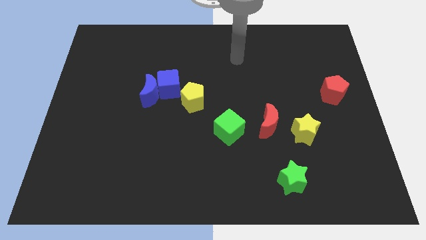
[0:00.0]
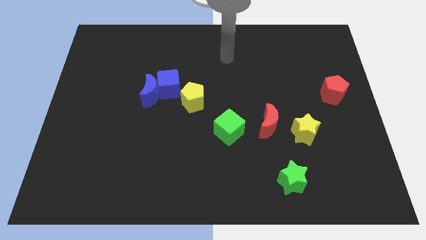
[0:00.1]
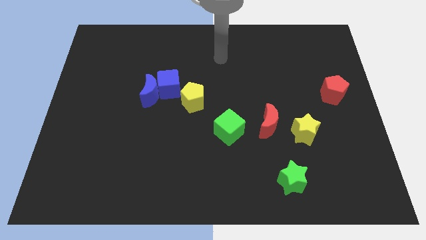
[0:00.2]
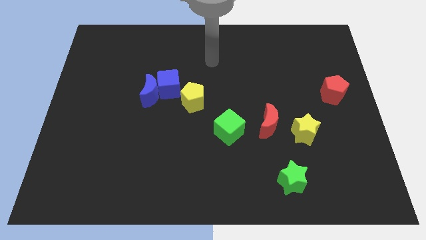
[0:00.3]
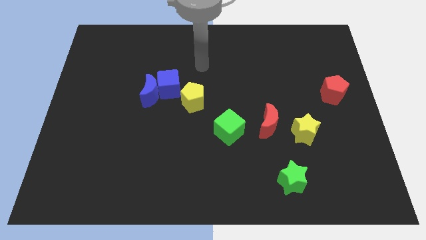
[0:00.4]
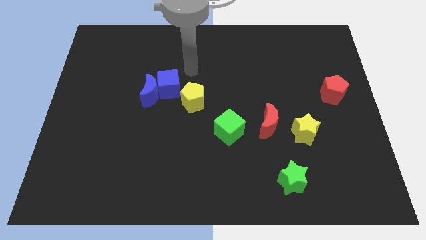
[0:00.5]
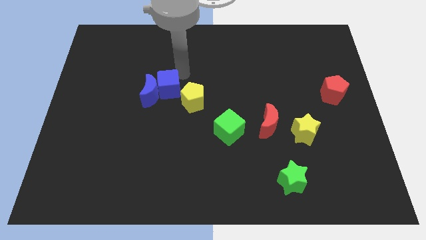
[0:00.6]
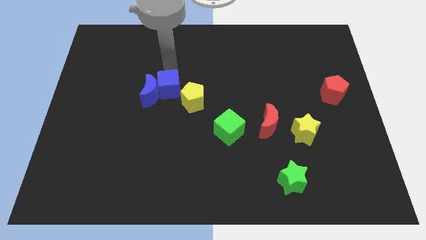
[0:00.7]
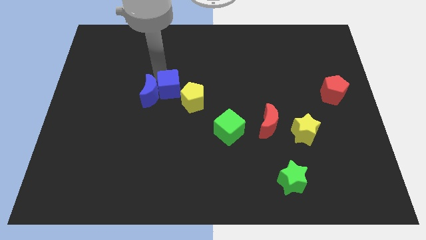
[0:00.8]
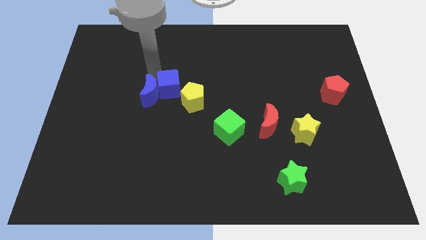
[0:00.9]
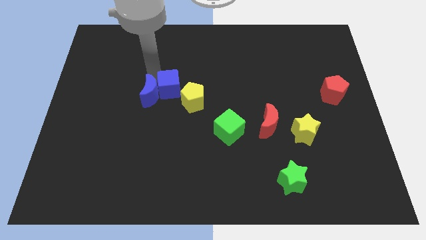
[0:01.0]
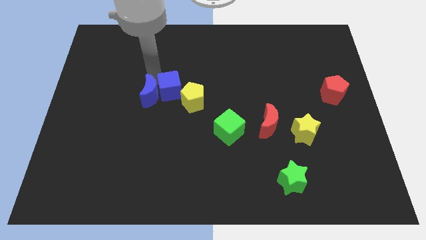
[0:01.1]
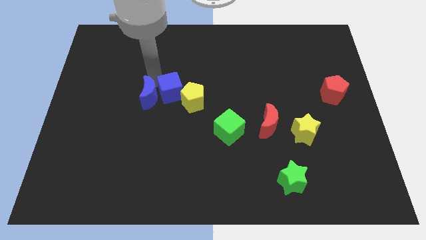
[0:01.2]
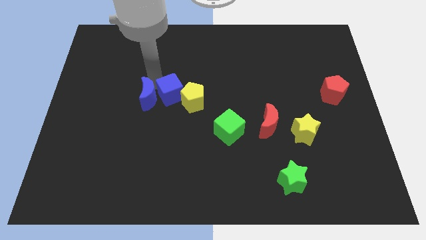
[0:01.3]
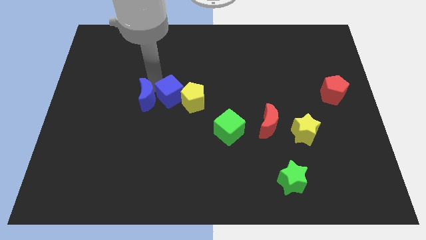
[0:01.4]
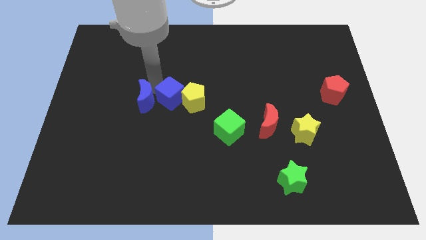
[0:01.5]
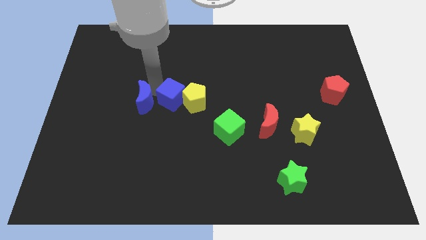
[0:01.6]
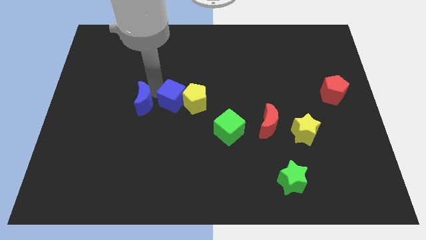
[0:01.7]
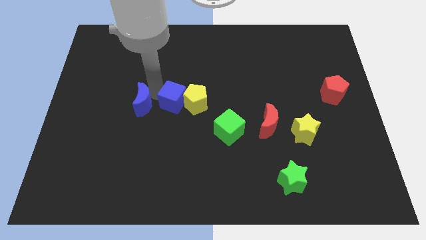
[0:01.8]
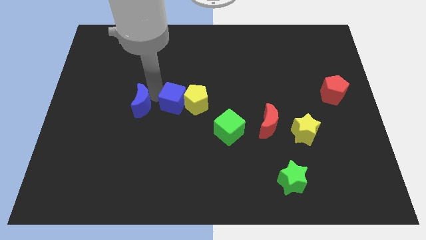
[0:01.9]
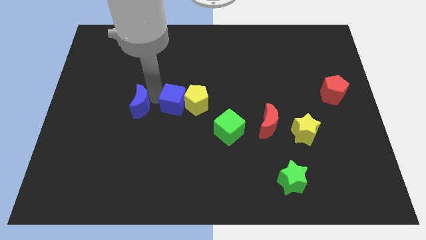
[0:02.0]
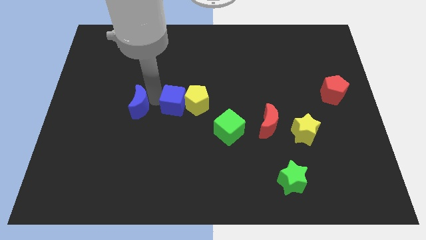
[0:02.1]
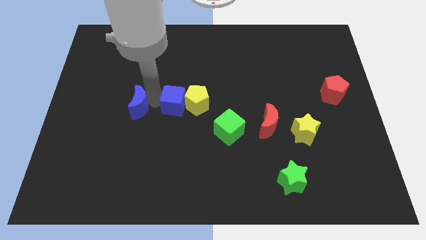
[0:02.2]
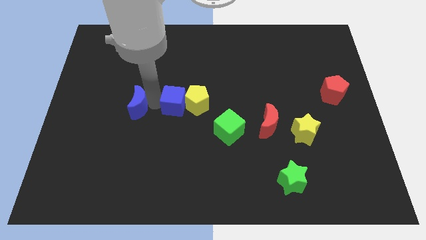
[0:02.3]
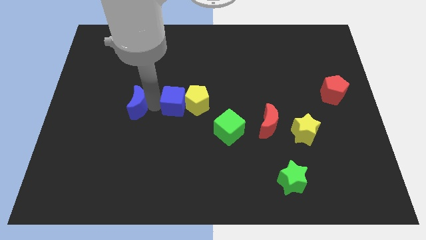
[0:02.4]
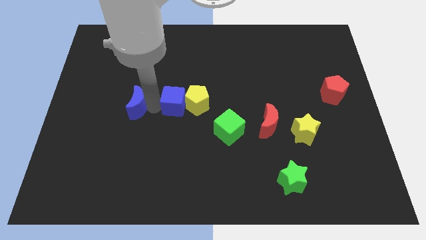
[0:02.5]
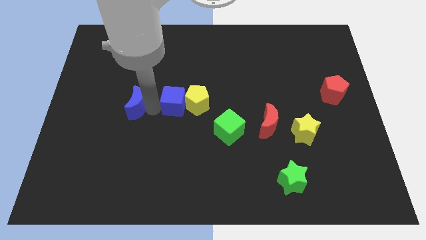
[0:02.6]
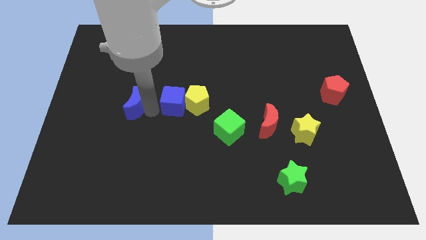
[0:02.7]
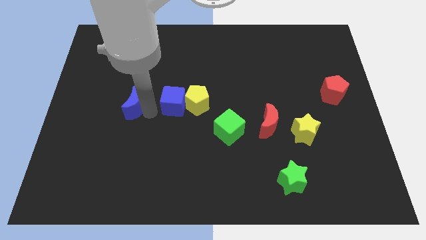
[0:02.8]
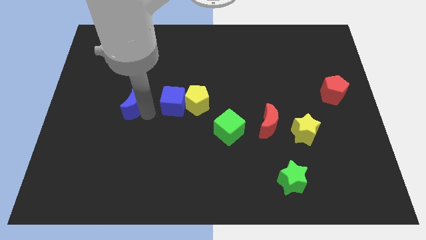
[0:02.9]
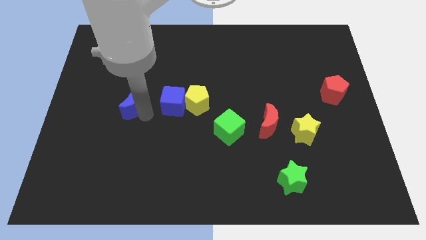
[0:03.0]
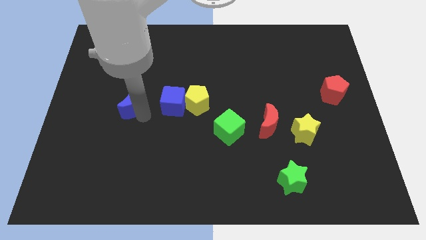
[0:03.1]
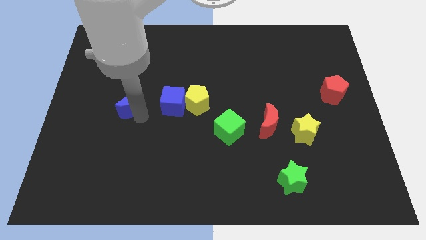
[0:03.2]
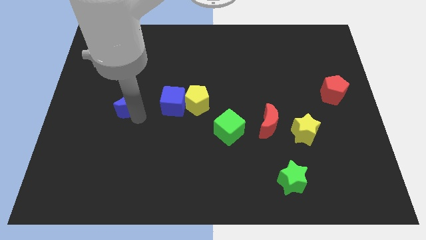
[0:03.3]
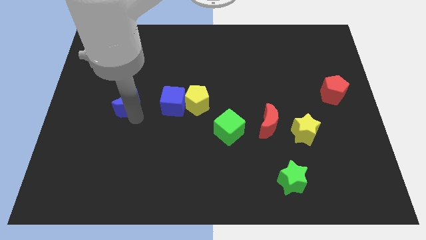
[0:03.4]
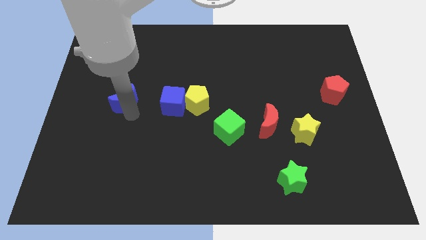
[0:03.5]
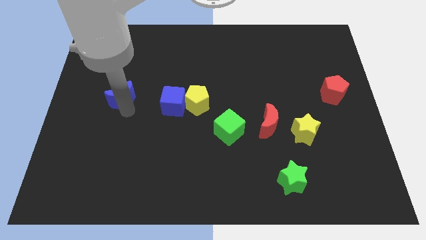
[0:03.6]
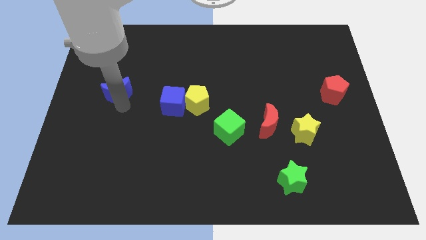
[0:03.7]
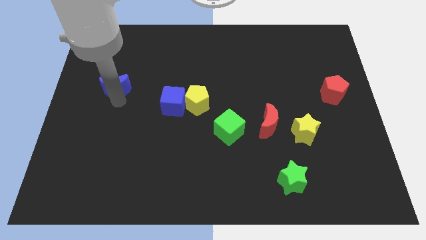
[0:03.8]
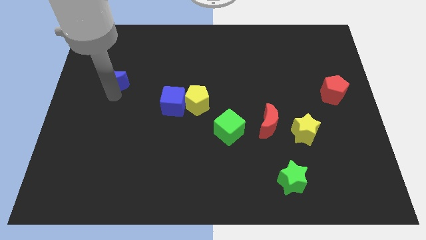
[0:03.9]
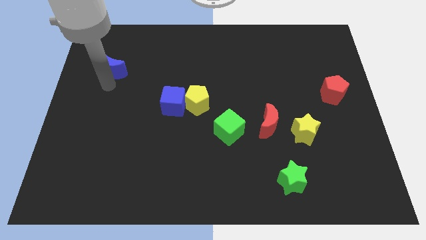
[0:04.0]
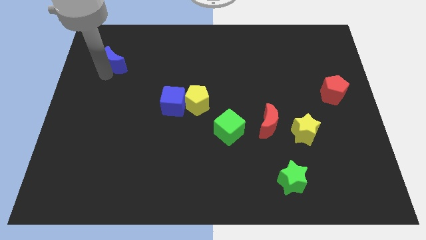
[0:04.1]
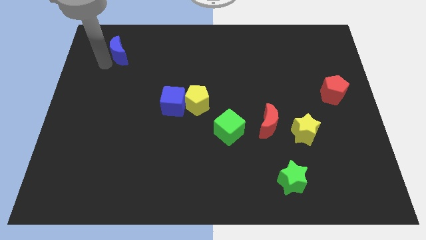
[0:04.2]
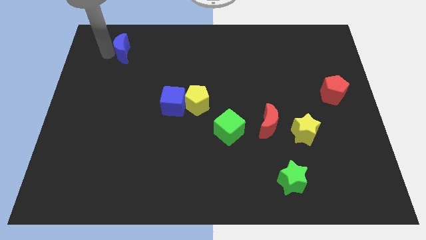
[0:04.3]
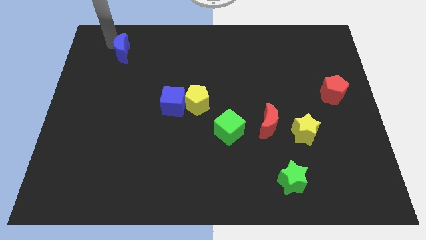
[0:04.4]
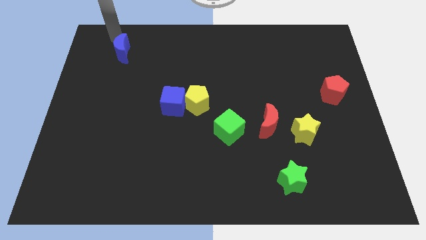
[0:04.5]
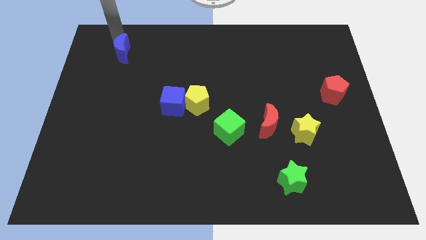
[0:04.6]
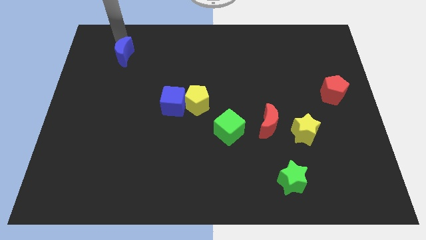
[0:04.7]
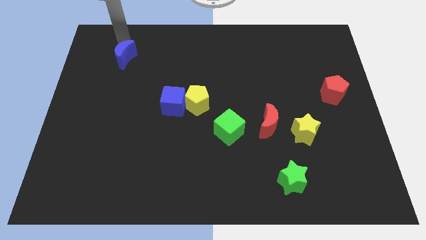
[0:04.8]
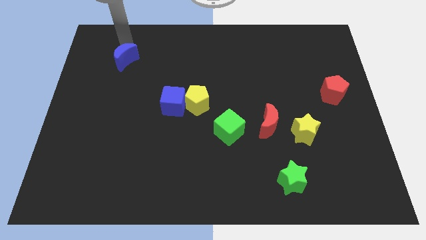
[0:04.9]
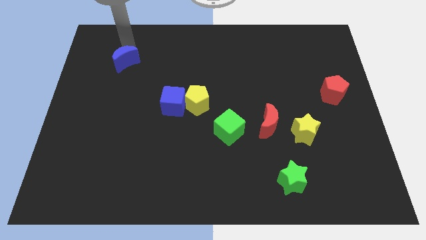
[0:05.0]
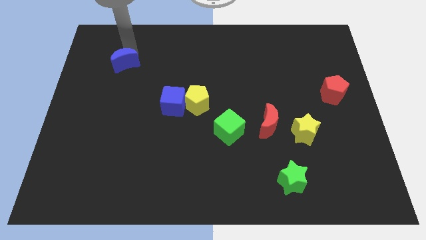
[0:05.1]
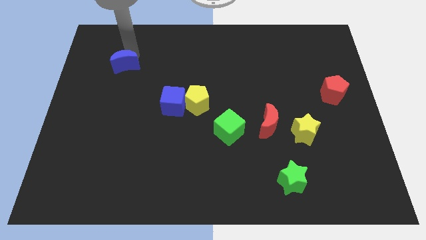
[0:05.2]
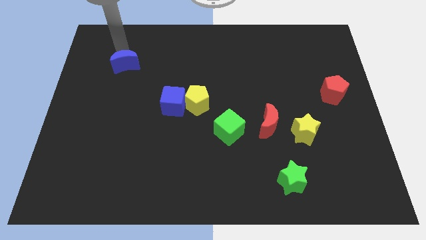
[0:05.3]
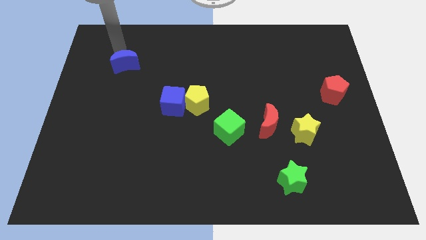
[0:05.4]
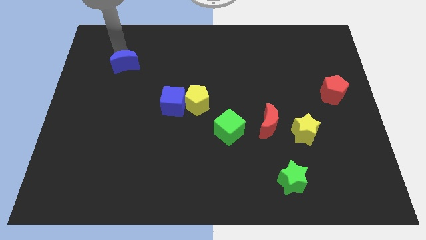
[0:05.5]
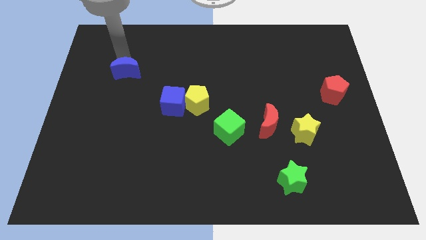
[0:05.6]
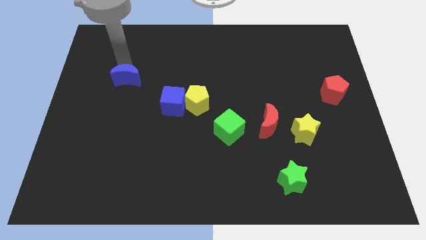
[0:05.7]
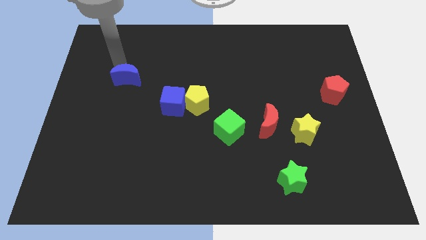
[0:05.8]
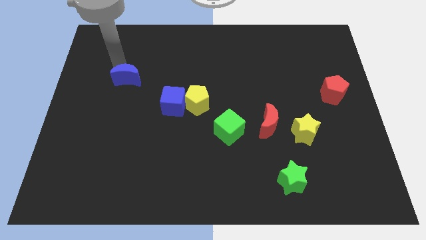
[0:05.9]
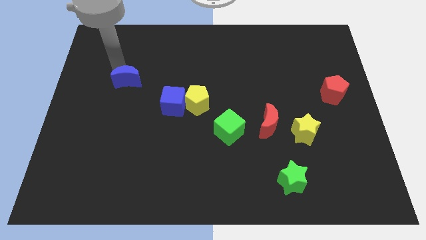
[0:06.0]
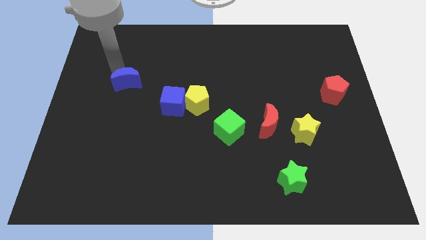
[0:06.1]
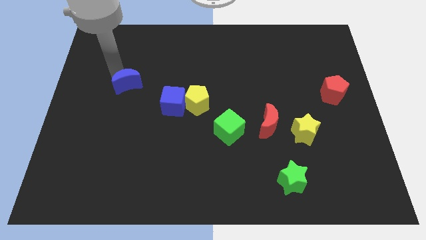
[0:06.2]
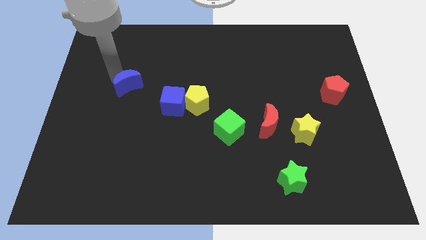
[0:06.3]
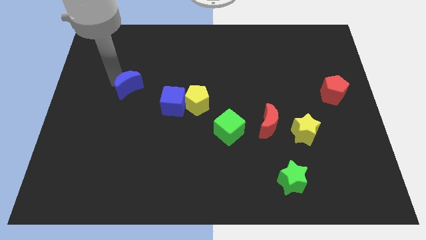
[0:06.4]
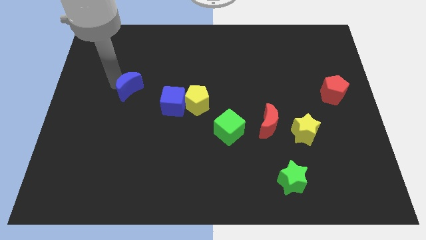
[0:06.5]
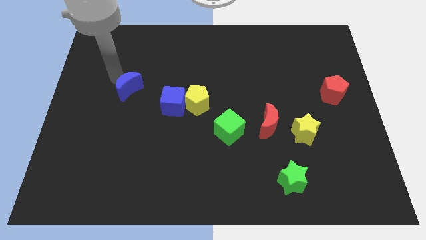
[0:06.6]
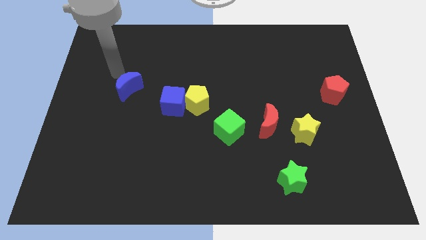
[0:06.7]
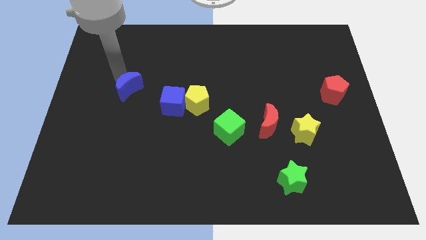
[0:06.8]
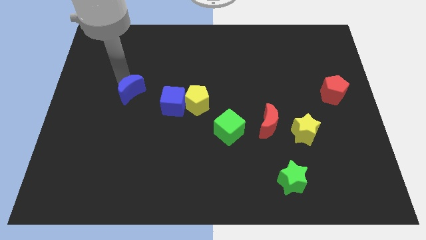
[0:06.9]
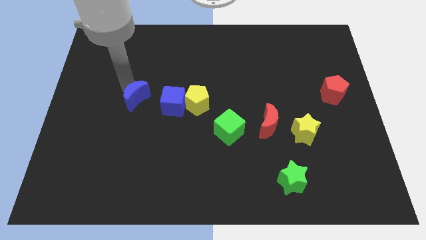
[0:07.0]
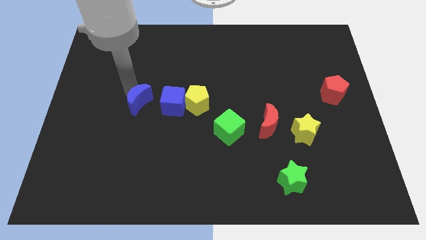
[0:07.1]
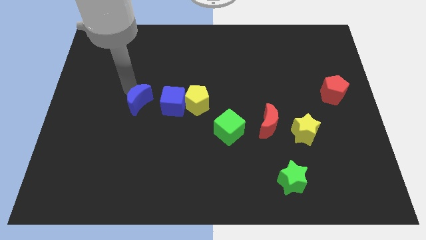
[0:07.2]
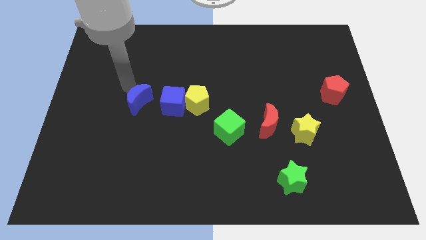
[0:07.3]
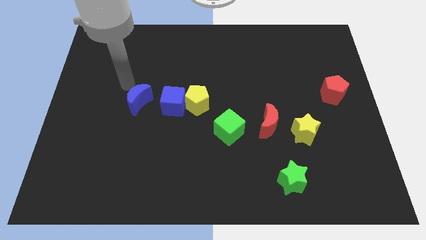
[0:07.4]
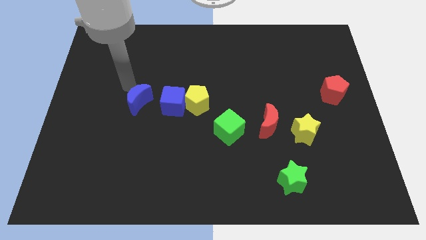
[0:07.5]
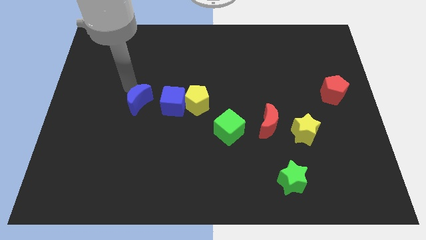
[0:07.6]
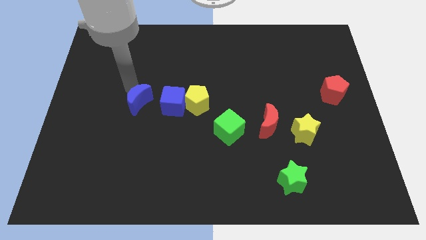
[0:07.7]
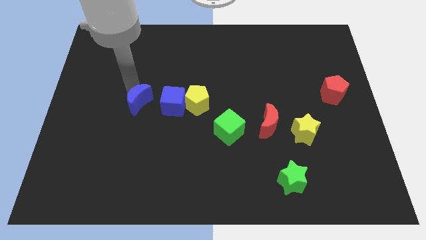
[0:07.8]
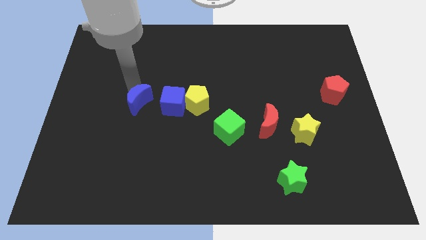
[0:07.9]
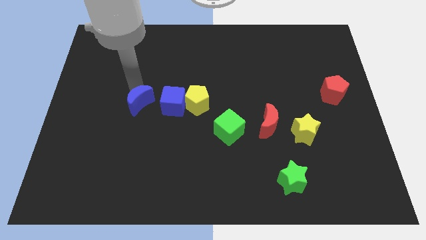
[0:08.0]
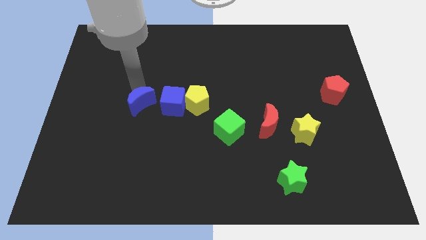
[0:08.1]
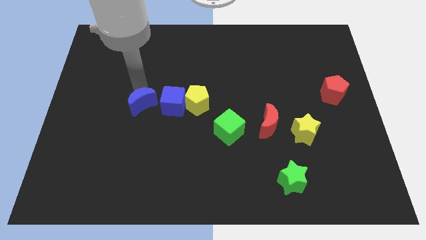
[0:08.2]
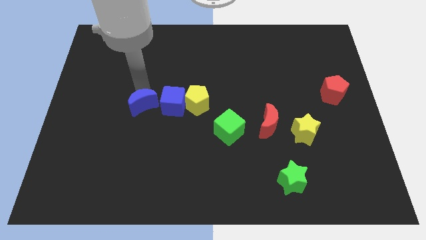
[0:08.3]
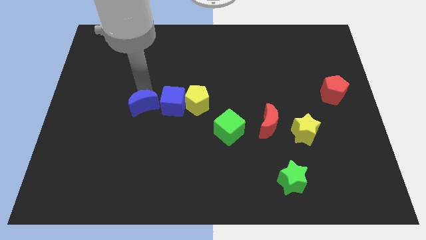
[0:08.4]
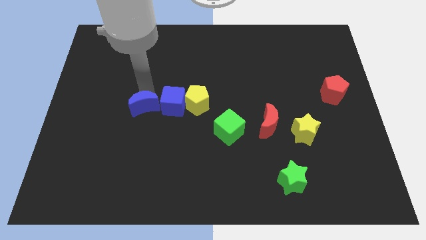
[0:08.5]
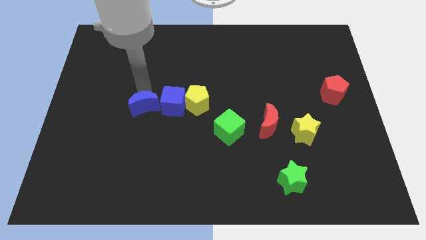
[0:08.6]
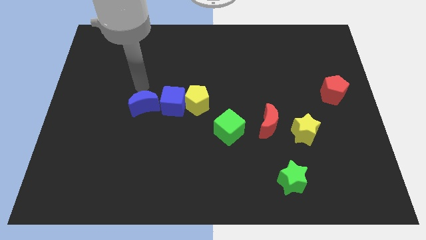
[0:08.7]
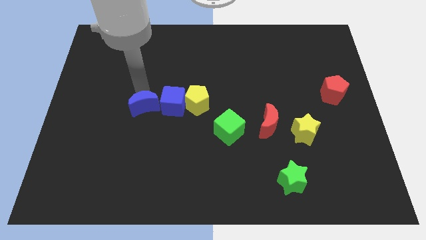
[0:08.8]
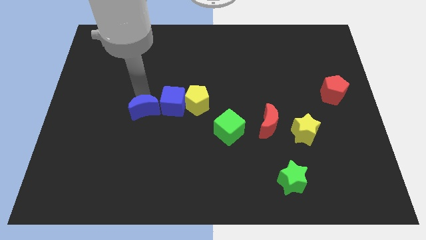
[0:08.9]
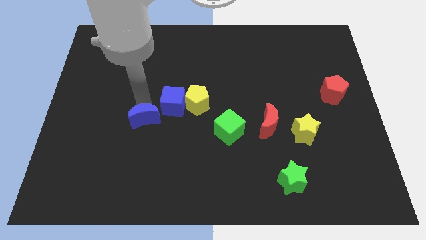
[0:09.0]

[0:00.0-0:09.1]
move the blue moon downwards a little
